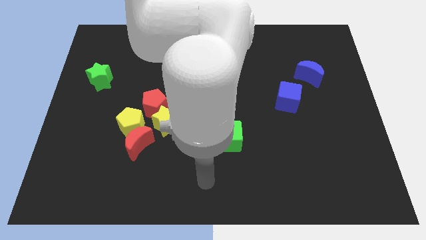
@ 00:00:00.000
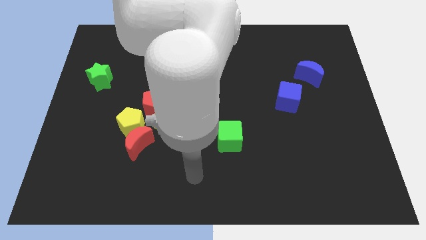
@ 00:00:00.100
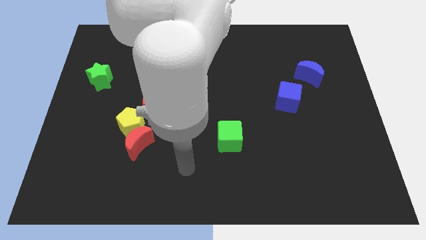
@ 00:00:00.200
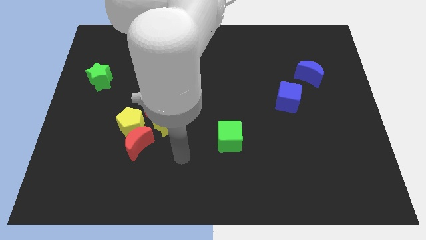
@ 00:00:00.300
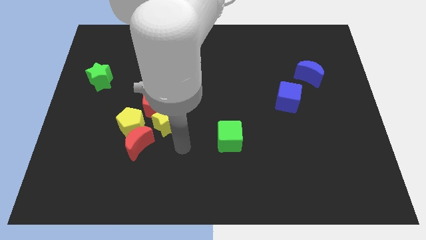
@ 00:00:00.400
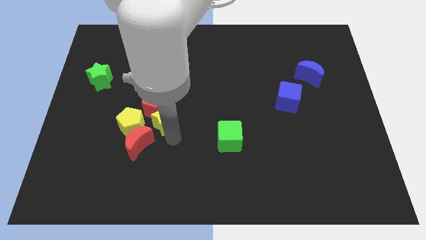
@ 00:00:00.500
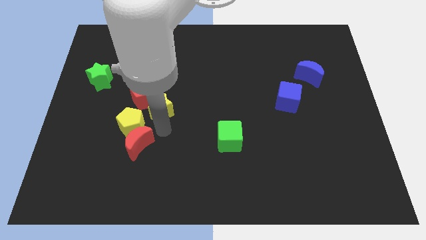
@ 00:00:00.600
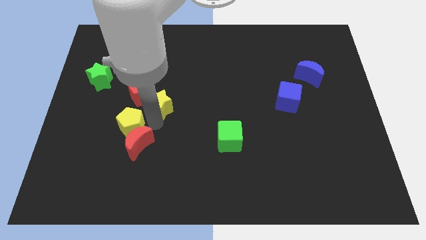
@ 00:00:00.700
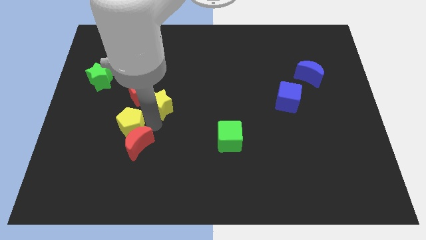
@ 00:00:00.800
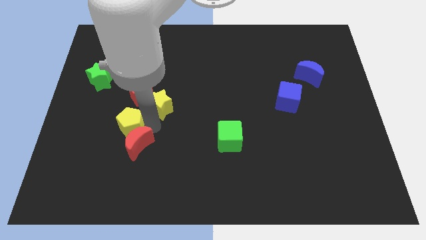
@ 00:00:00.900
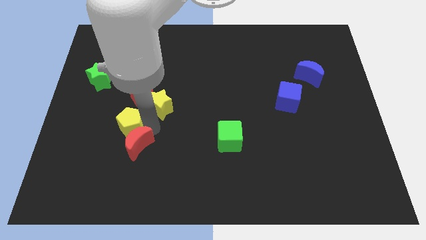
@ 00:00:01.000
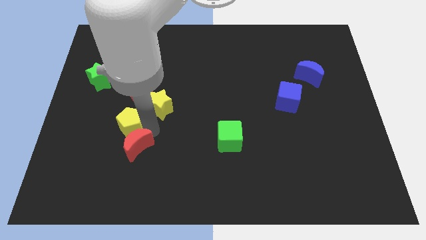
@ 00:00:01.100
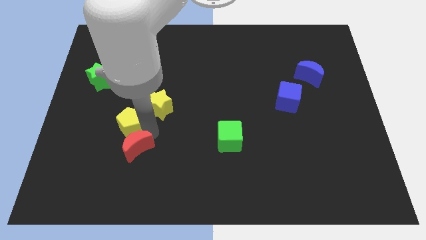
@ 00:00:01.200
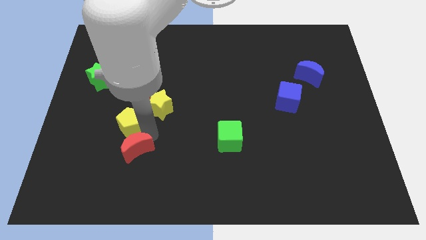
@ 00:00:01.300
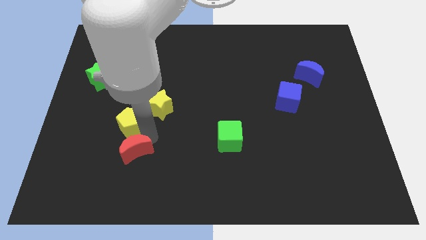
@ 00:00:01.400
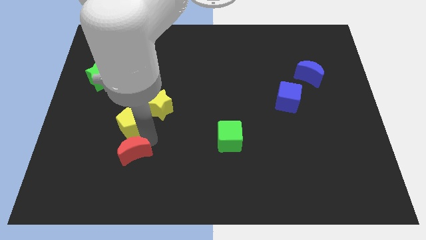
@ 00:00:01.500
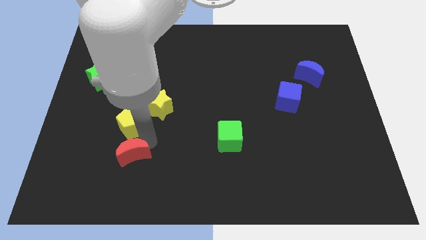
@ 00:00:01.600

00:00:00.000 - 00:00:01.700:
move the red moon away from the yellow pentagon and yellow star

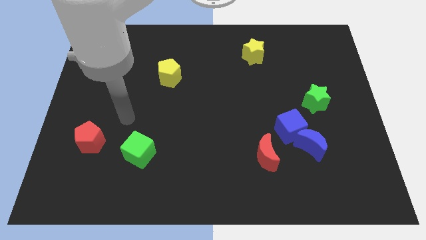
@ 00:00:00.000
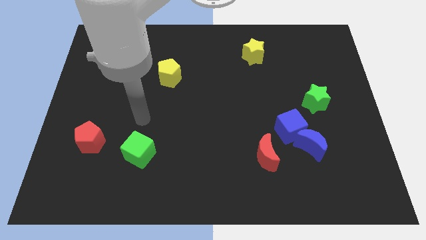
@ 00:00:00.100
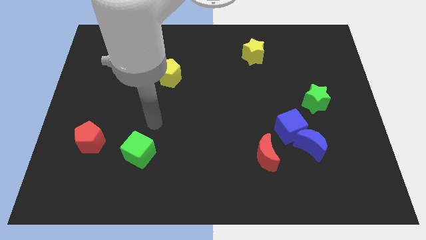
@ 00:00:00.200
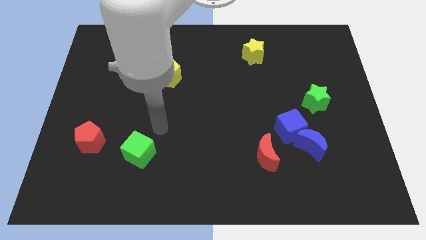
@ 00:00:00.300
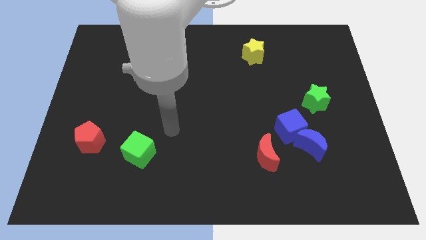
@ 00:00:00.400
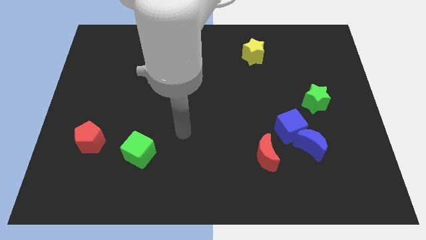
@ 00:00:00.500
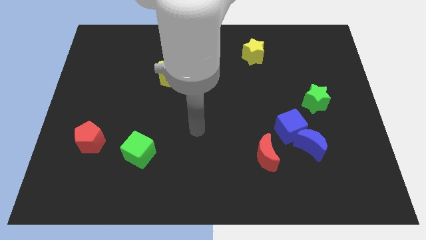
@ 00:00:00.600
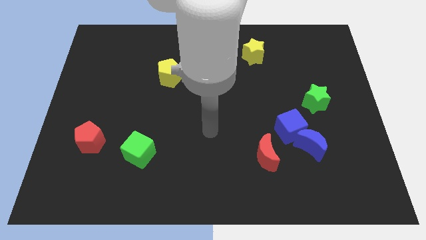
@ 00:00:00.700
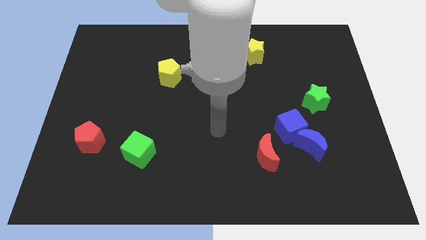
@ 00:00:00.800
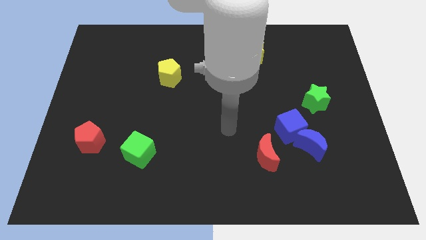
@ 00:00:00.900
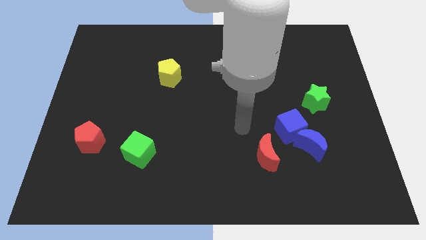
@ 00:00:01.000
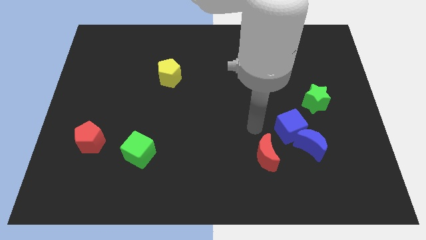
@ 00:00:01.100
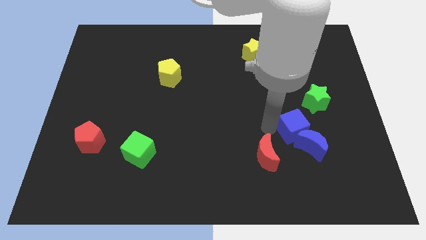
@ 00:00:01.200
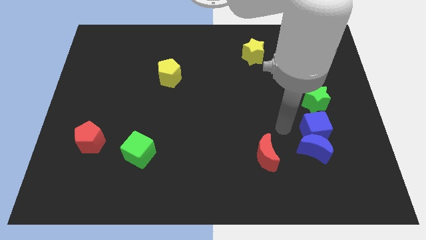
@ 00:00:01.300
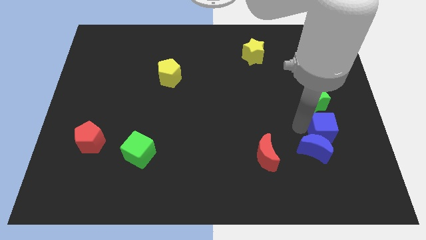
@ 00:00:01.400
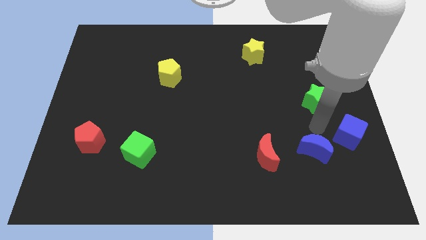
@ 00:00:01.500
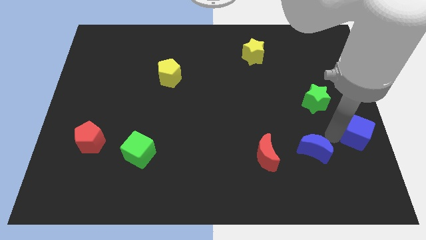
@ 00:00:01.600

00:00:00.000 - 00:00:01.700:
separate the blue moon from the blue cube

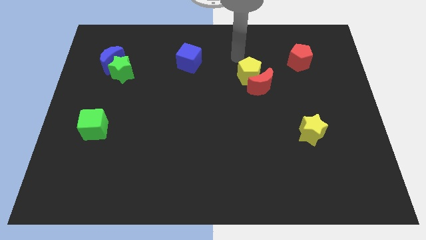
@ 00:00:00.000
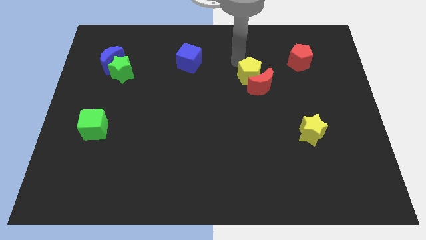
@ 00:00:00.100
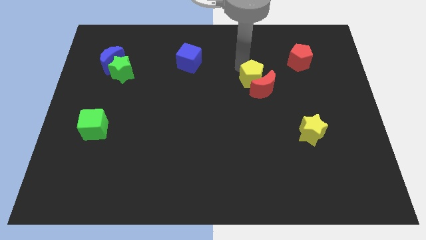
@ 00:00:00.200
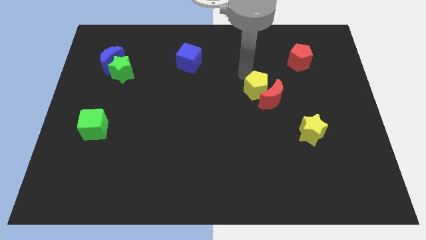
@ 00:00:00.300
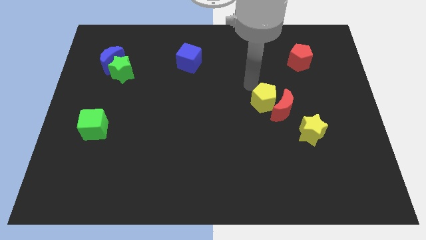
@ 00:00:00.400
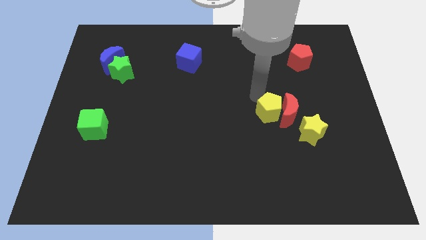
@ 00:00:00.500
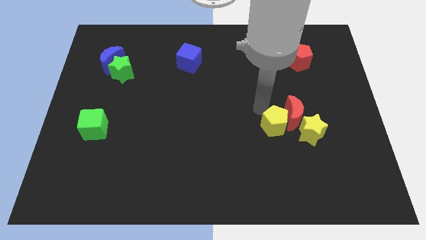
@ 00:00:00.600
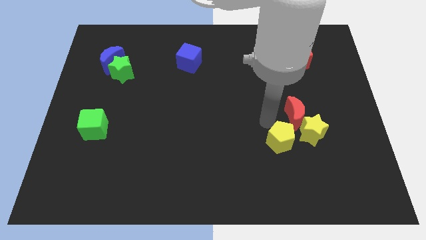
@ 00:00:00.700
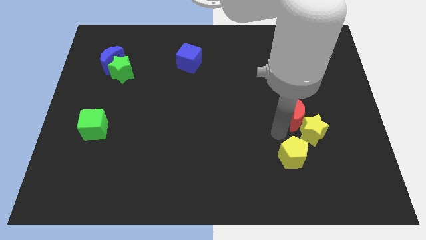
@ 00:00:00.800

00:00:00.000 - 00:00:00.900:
move the red moon away from the yellow pentagon

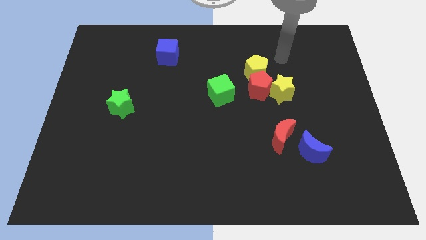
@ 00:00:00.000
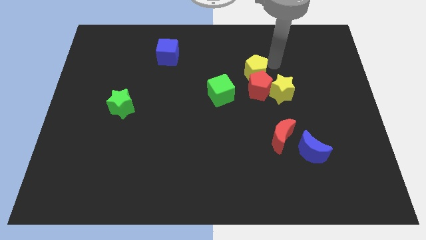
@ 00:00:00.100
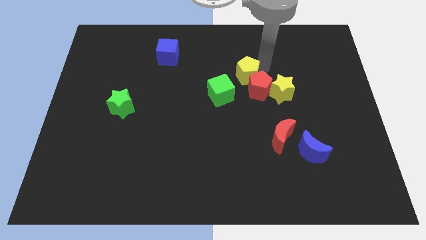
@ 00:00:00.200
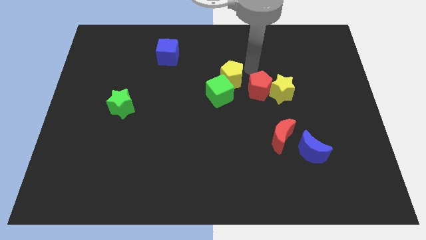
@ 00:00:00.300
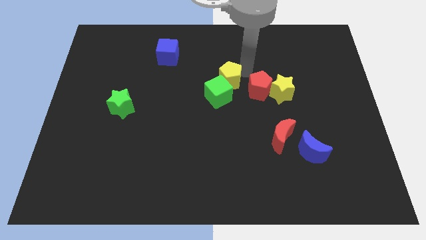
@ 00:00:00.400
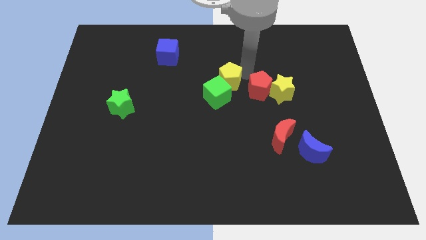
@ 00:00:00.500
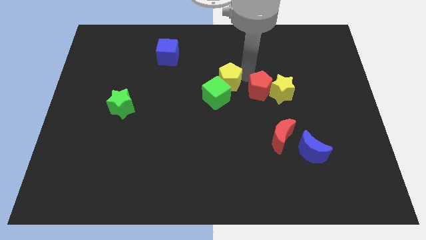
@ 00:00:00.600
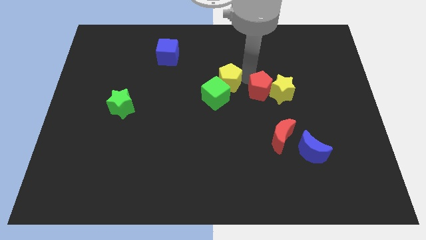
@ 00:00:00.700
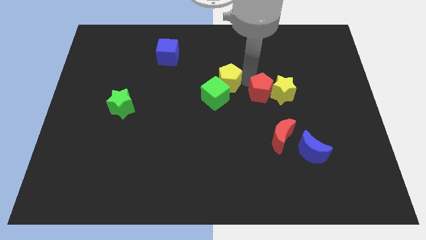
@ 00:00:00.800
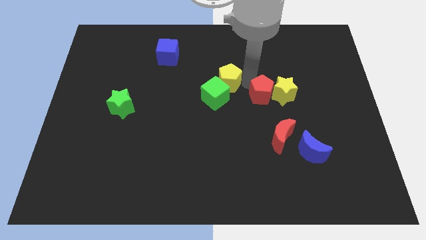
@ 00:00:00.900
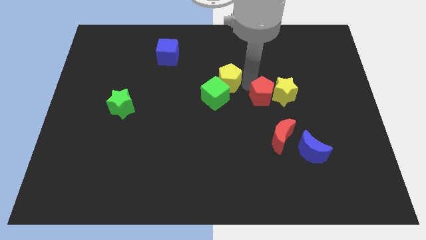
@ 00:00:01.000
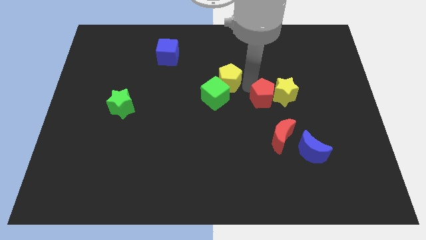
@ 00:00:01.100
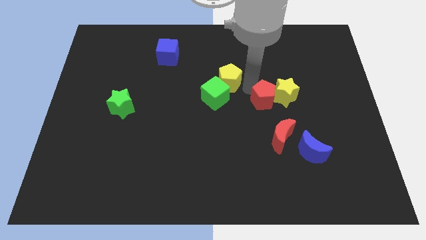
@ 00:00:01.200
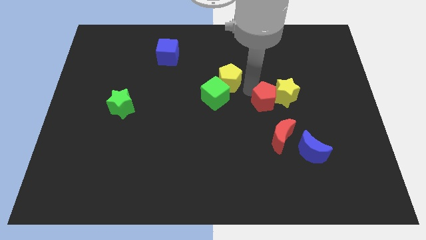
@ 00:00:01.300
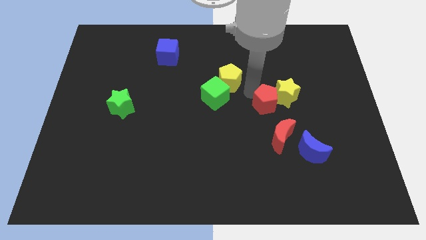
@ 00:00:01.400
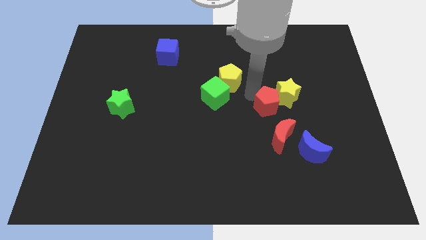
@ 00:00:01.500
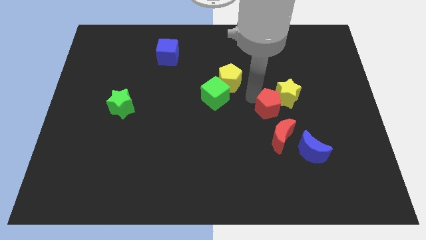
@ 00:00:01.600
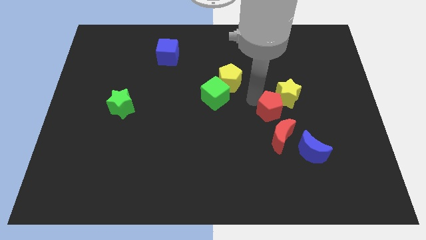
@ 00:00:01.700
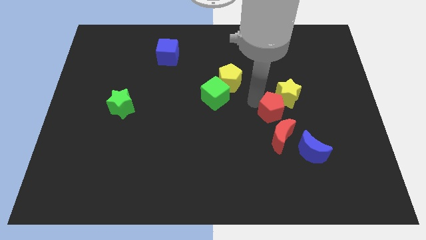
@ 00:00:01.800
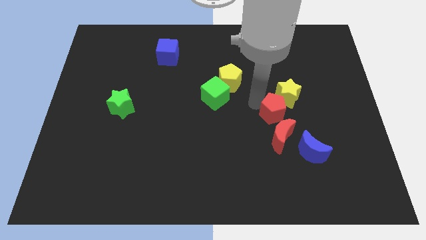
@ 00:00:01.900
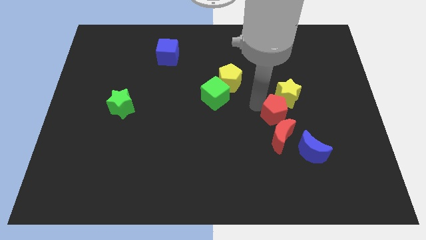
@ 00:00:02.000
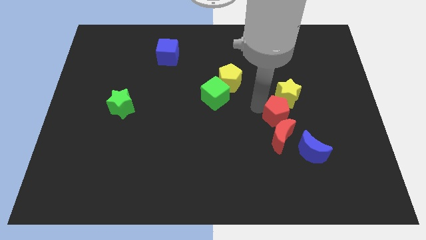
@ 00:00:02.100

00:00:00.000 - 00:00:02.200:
move the red pentagon away from the yellow star, yellow pentagon, and green cube

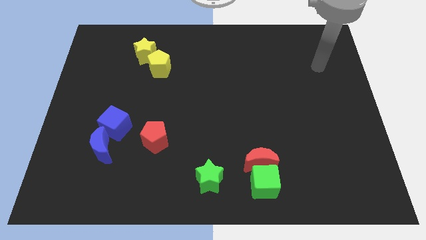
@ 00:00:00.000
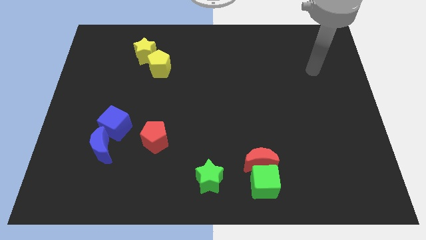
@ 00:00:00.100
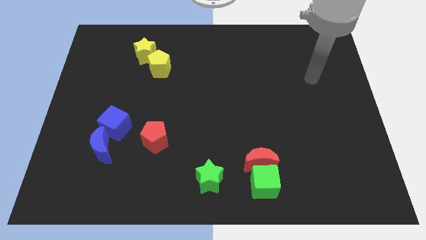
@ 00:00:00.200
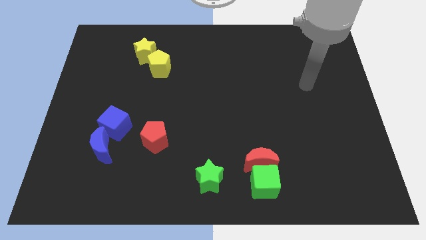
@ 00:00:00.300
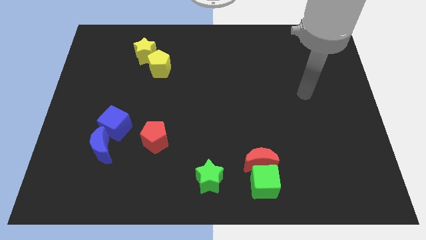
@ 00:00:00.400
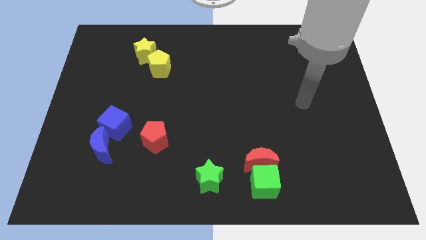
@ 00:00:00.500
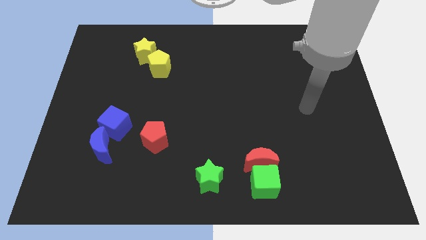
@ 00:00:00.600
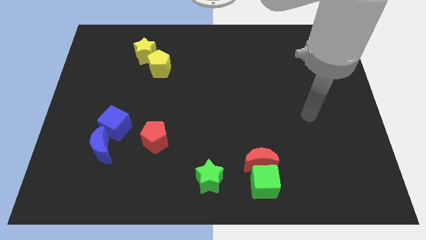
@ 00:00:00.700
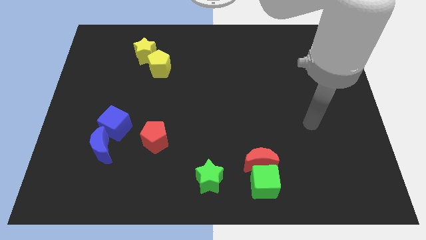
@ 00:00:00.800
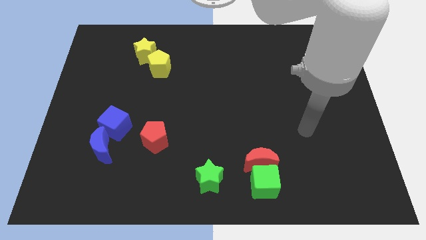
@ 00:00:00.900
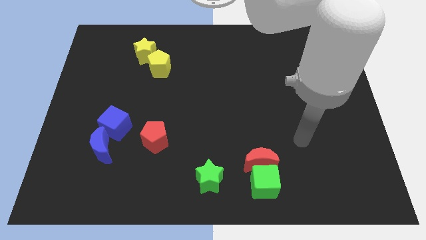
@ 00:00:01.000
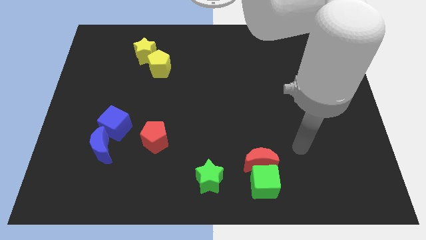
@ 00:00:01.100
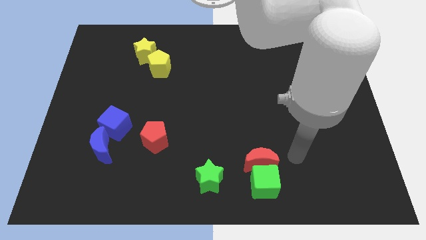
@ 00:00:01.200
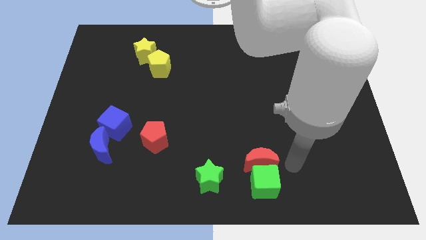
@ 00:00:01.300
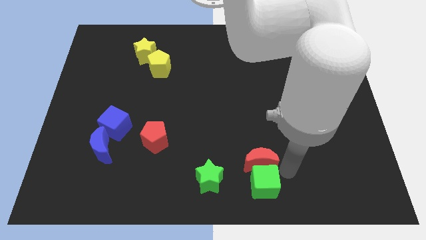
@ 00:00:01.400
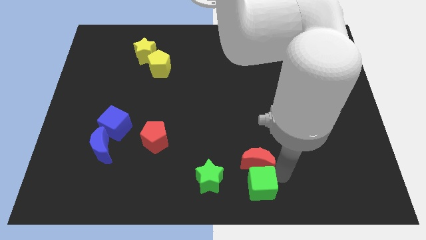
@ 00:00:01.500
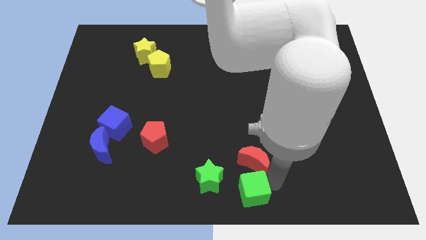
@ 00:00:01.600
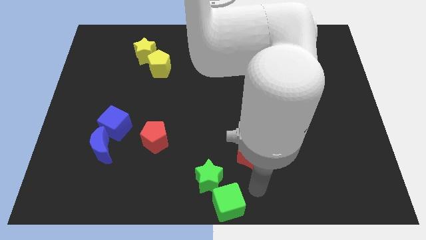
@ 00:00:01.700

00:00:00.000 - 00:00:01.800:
move the red moon away from the green cube

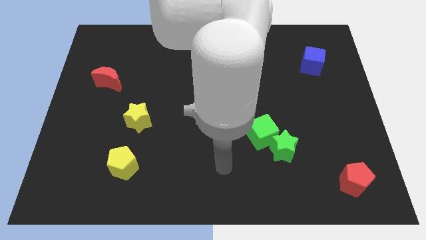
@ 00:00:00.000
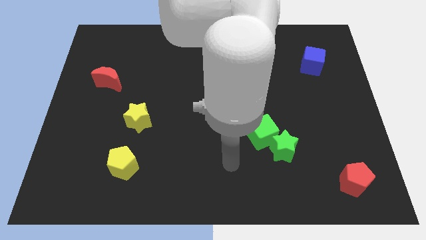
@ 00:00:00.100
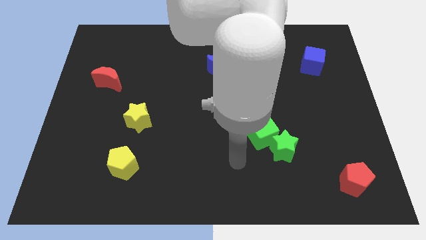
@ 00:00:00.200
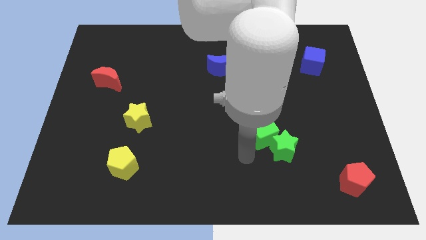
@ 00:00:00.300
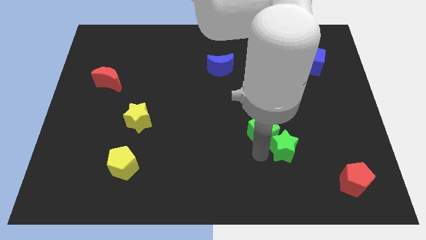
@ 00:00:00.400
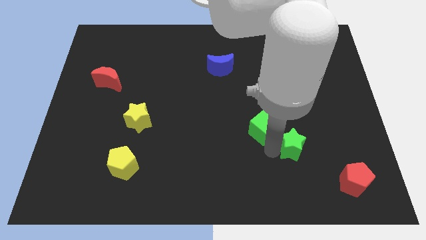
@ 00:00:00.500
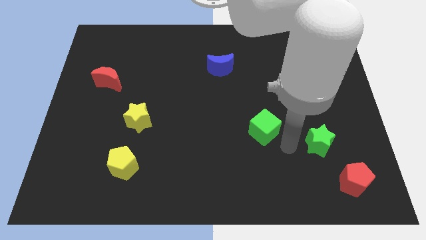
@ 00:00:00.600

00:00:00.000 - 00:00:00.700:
move the green cube away from the green star

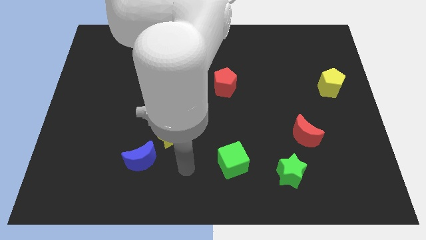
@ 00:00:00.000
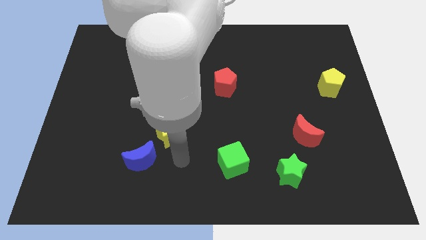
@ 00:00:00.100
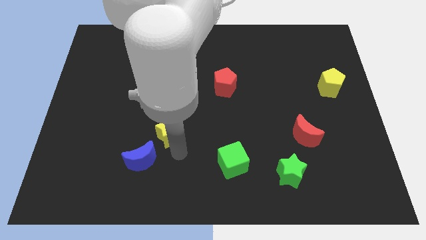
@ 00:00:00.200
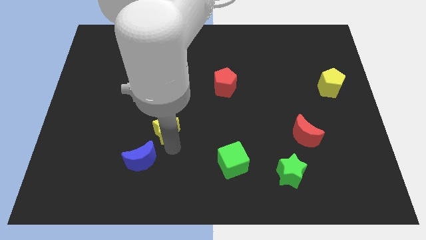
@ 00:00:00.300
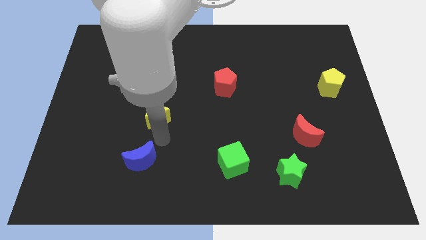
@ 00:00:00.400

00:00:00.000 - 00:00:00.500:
separate the blue moon from the yellow star
